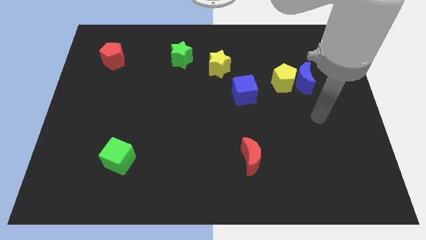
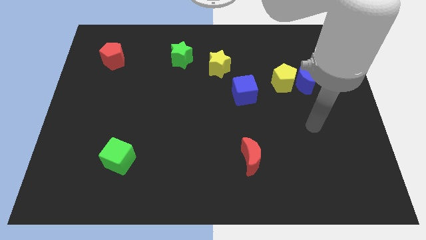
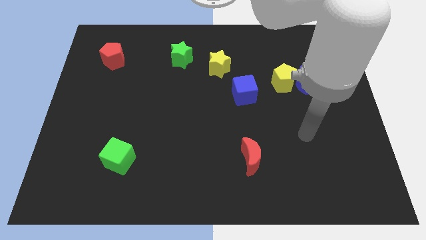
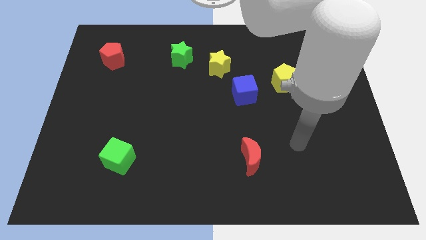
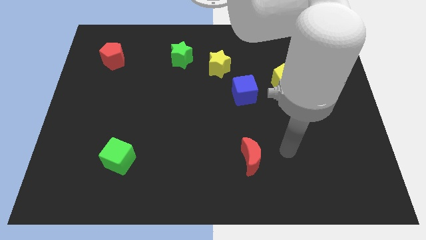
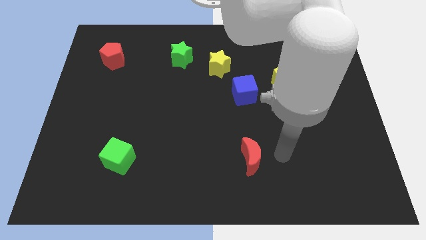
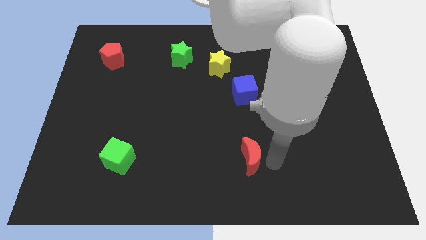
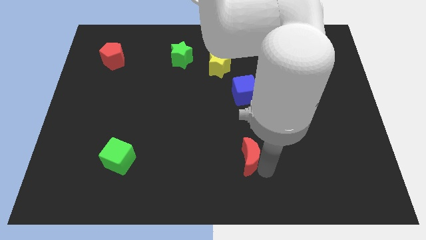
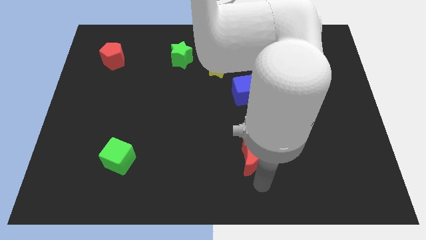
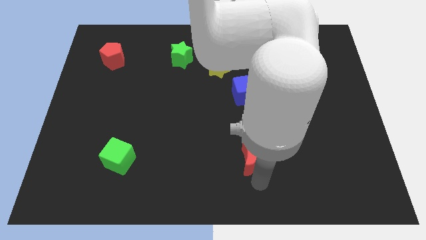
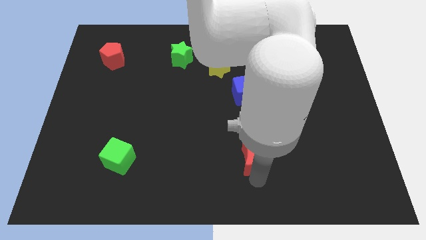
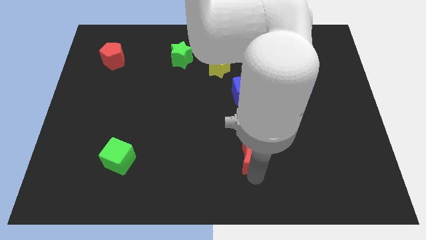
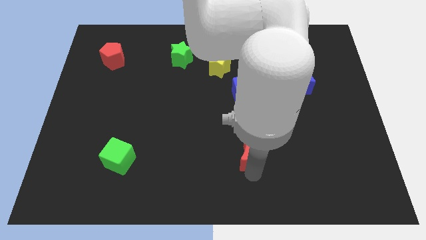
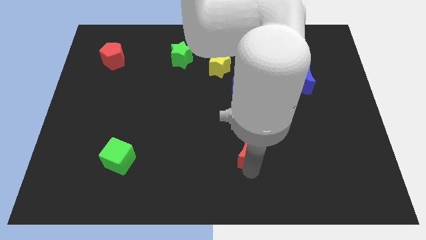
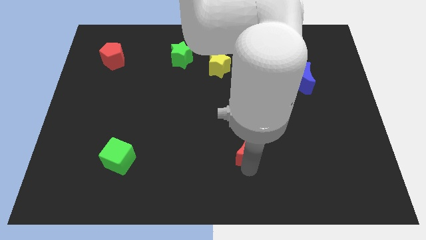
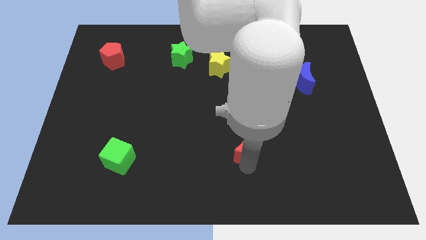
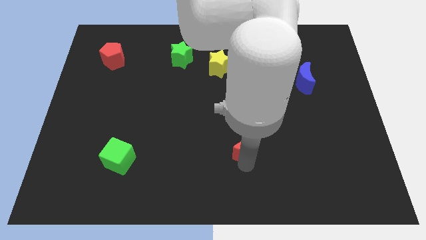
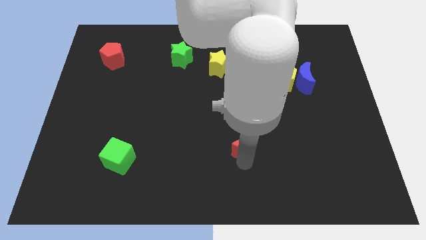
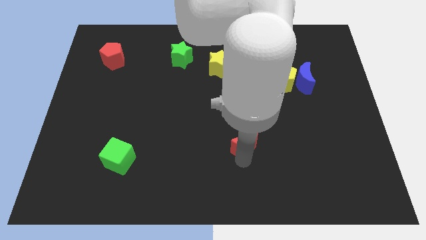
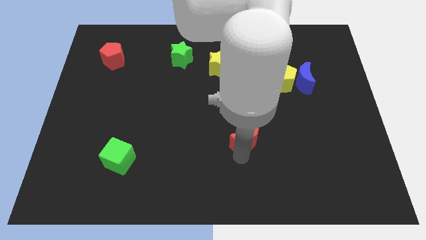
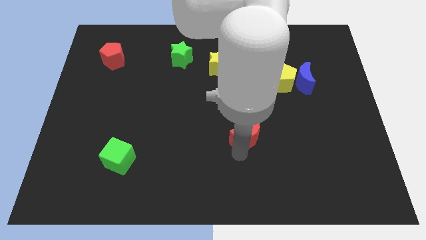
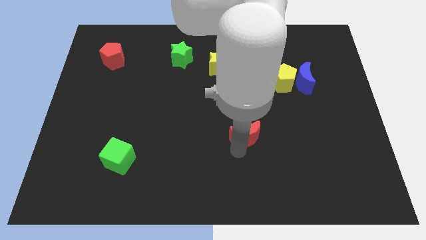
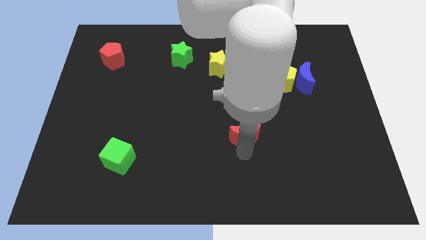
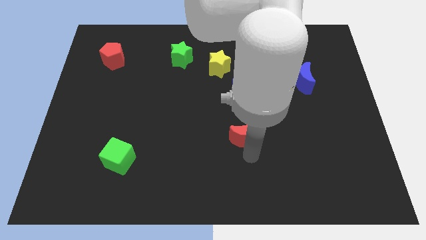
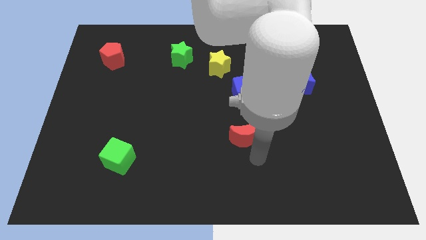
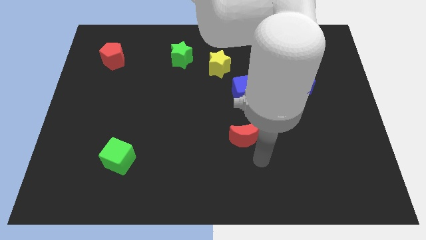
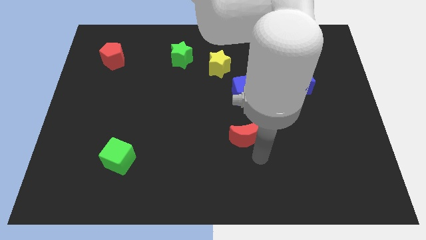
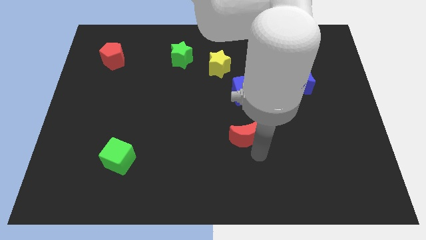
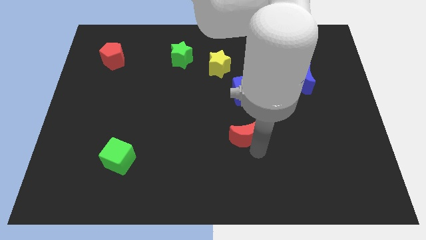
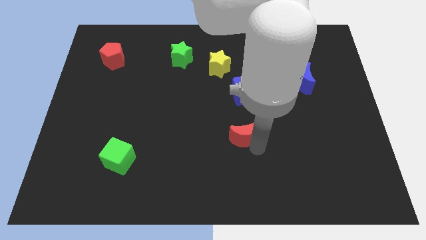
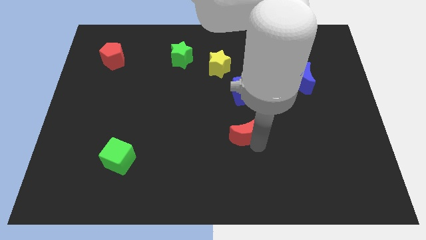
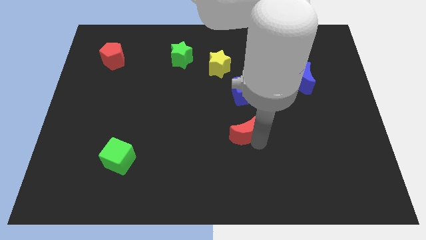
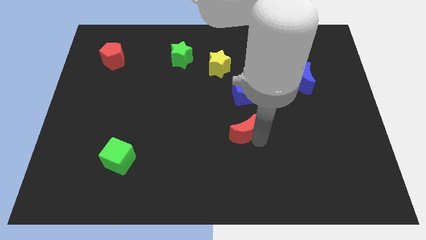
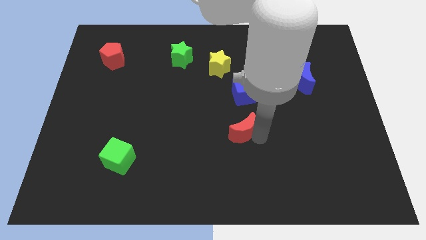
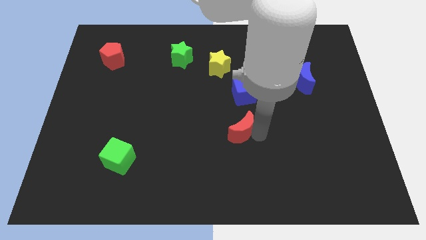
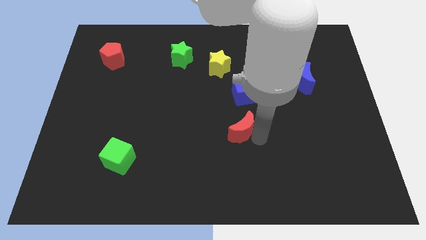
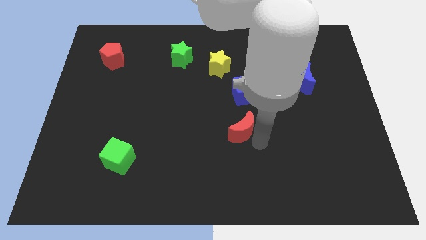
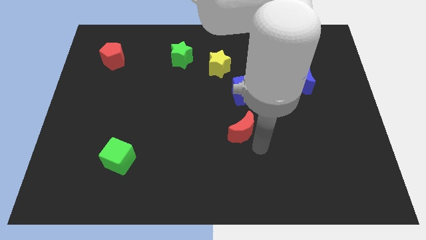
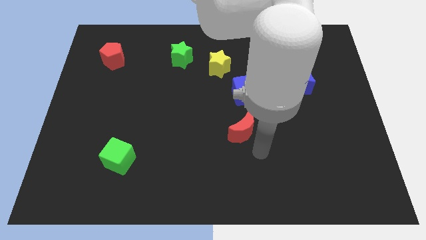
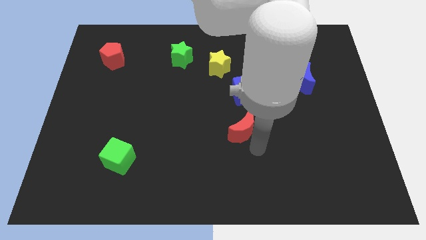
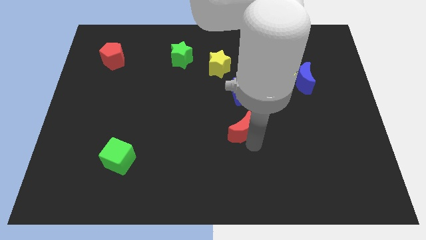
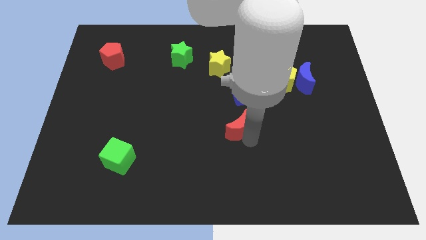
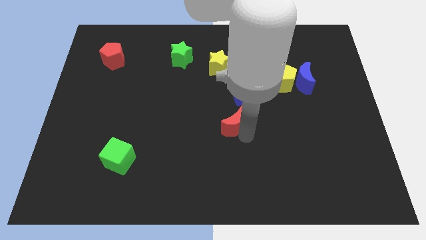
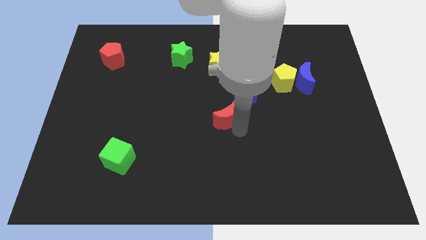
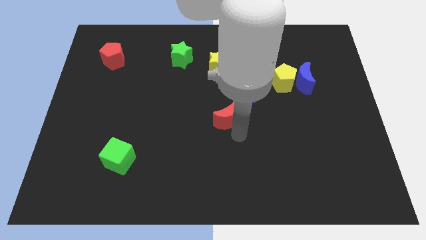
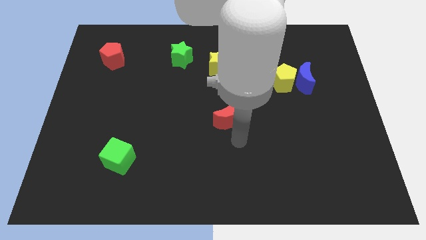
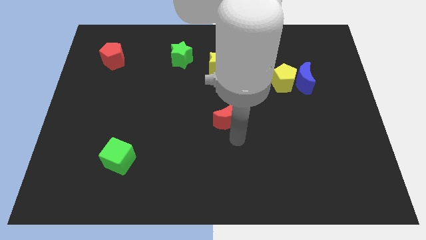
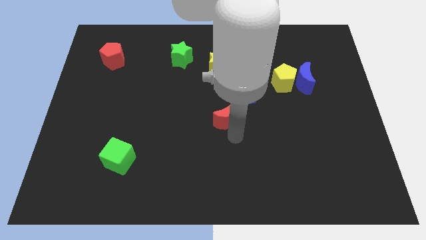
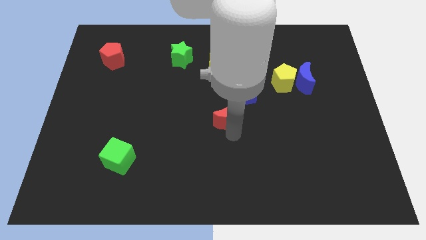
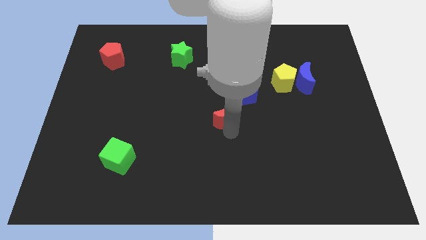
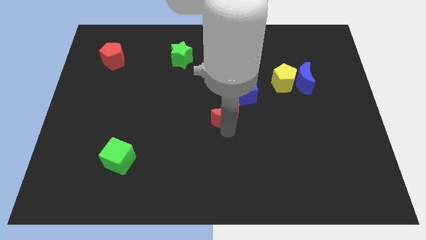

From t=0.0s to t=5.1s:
move the red moon to the bottom side of the yellow star

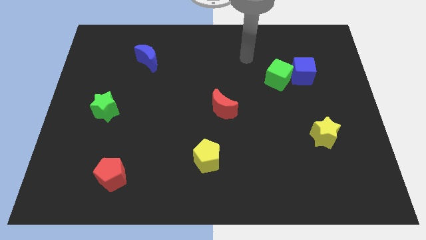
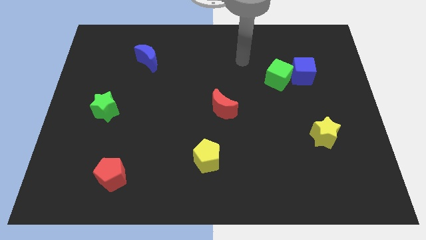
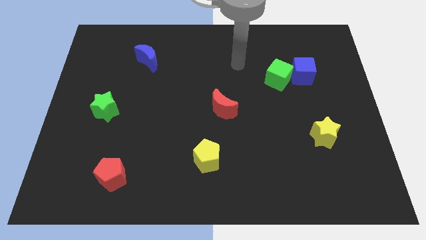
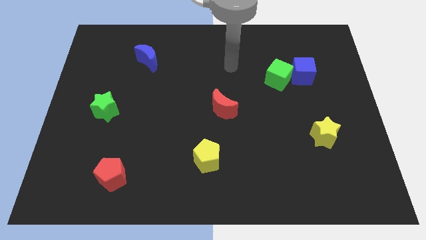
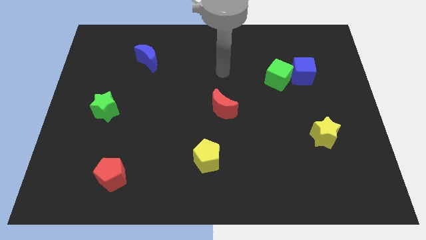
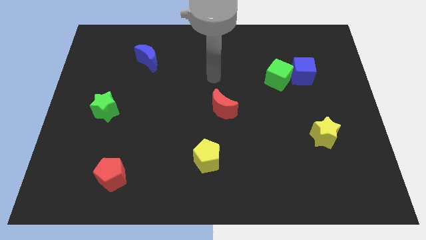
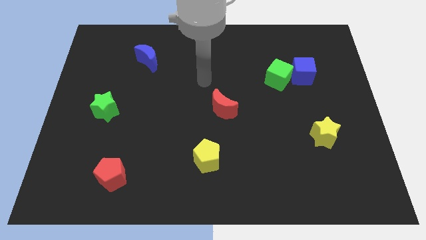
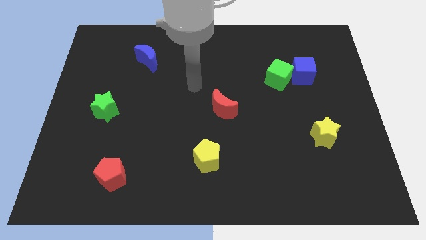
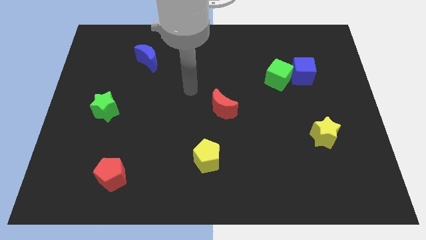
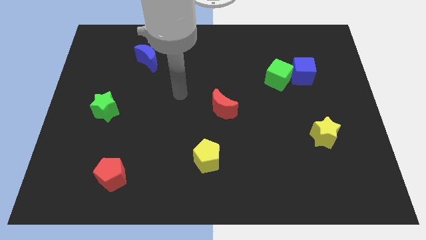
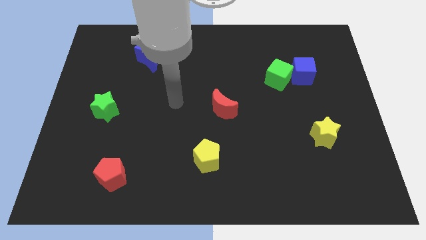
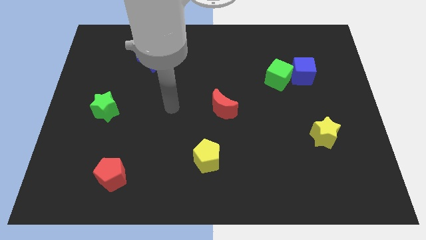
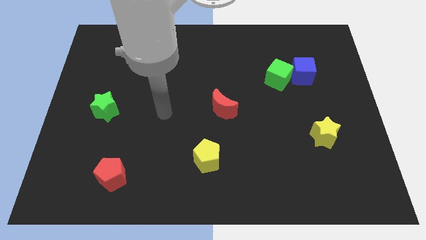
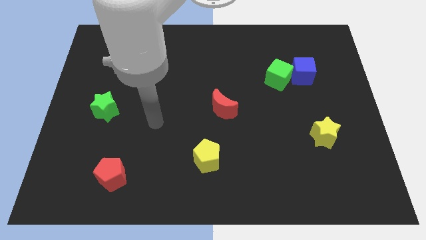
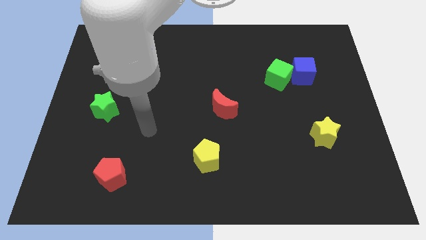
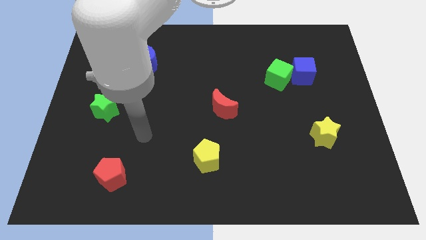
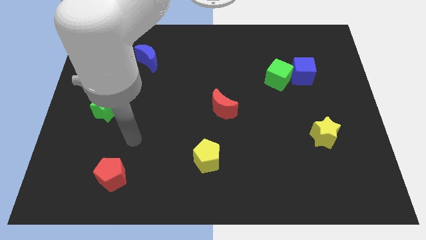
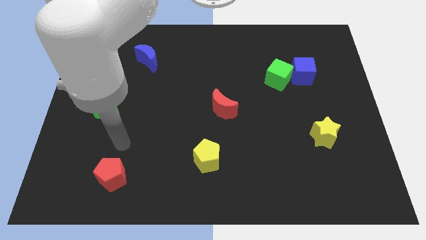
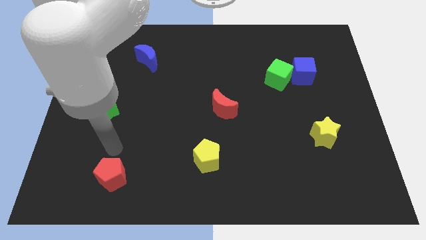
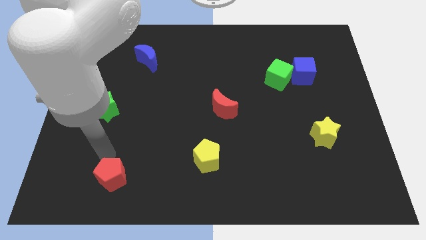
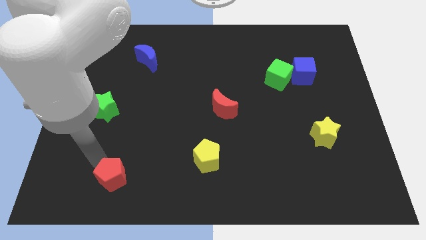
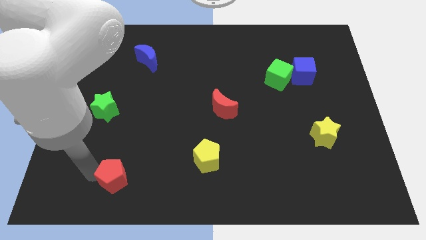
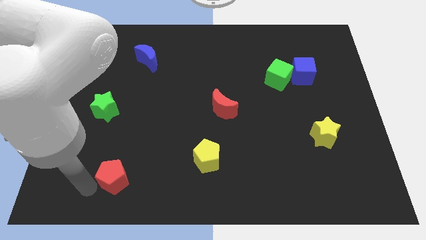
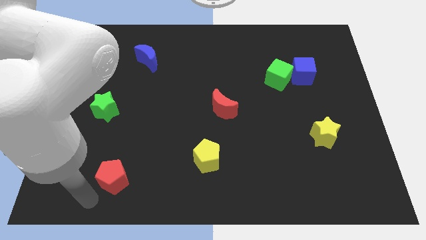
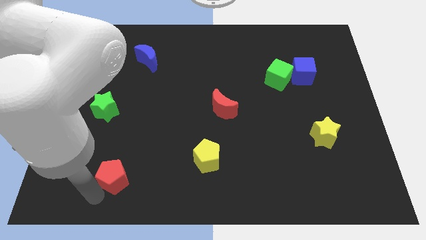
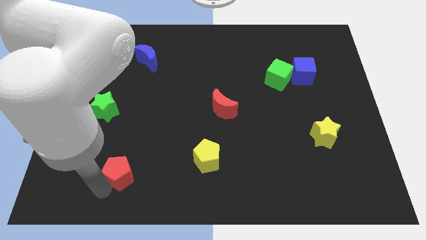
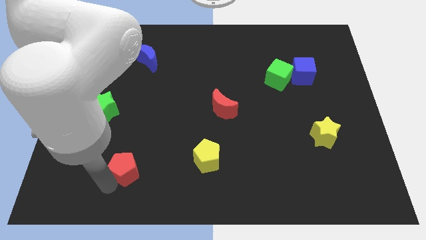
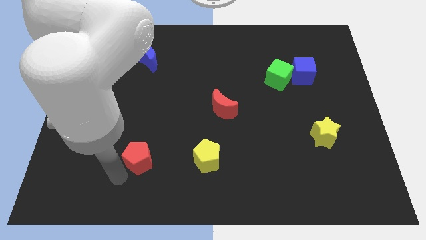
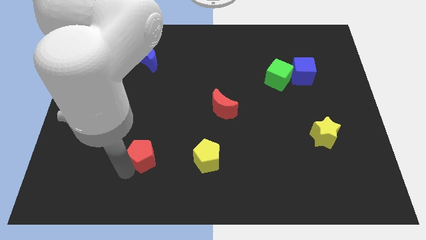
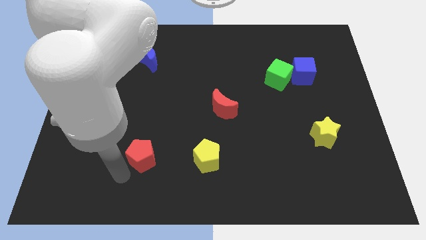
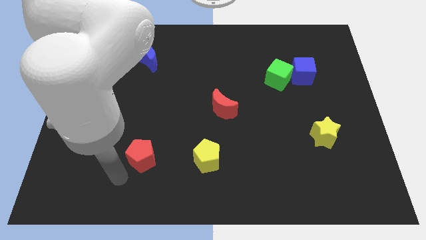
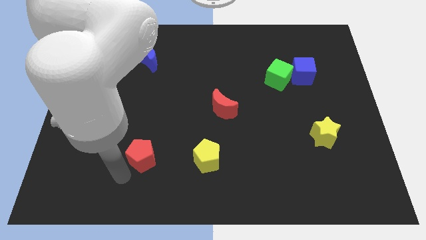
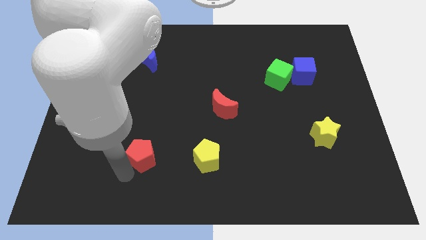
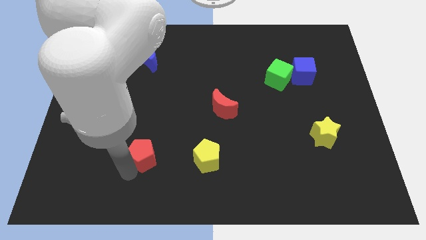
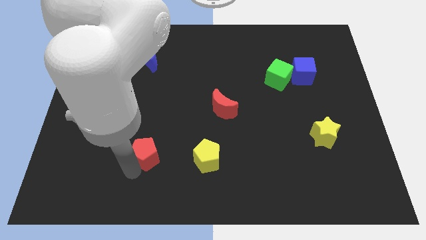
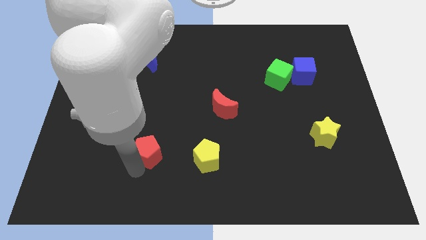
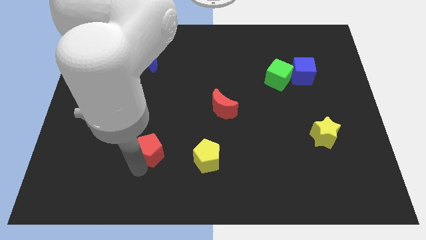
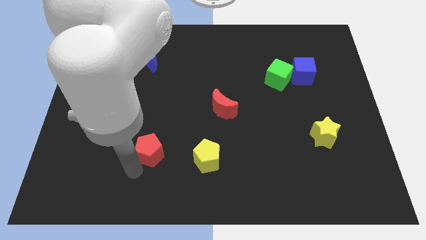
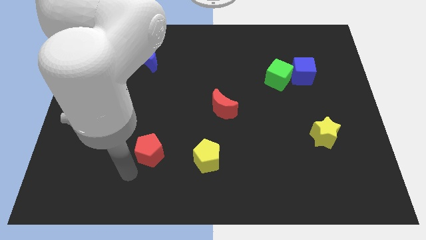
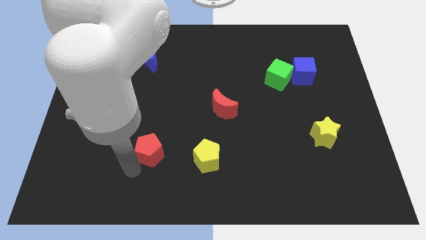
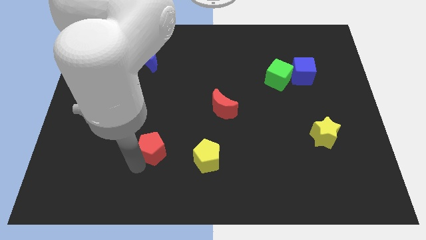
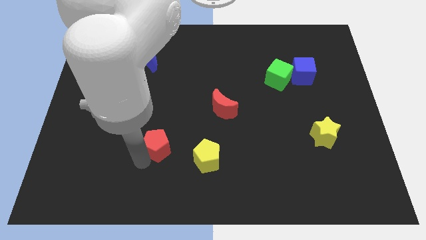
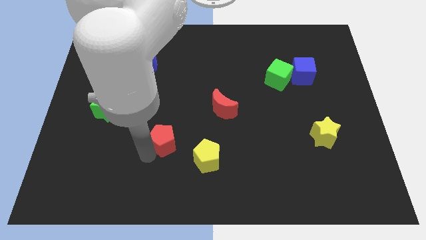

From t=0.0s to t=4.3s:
slide the red pentagon to the top left of the yellow pentagon
